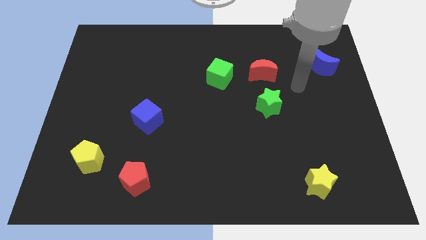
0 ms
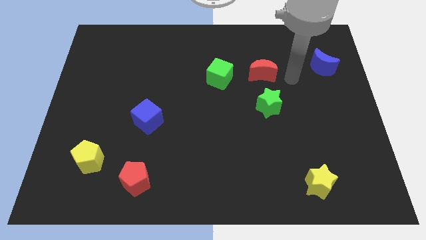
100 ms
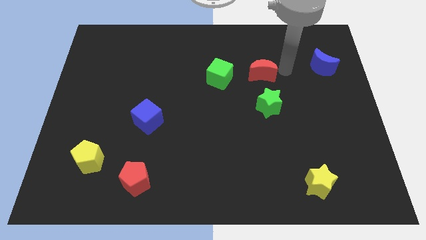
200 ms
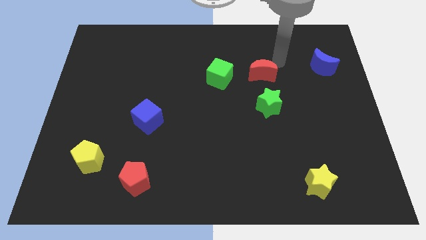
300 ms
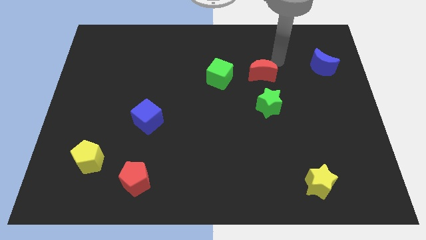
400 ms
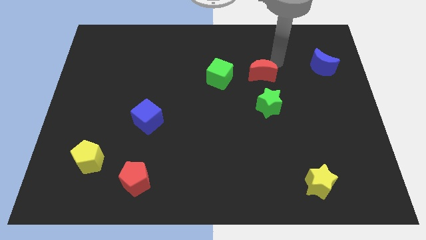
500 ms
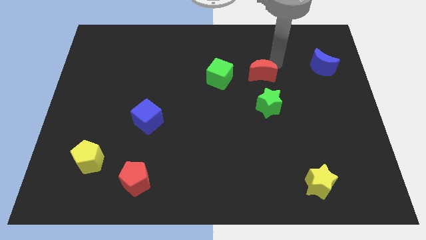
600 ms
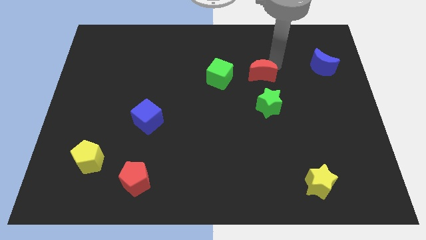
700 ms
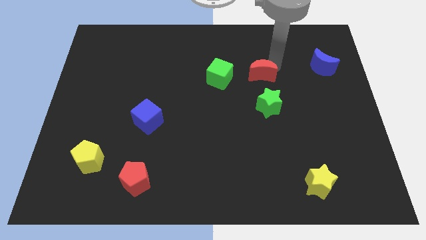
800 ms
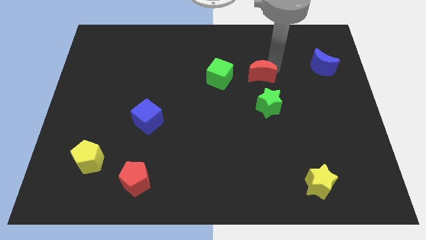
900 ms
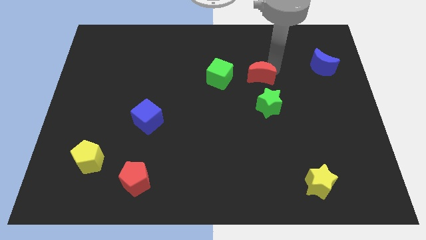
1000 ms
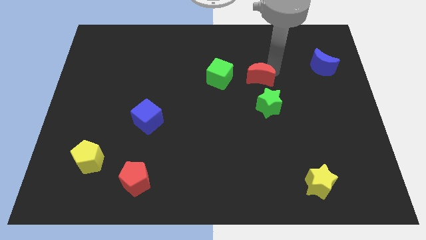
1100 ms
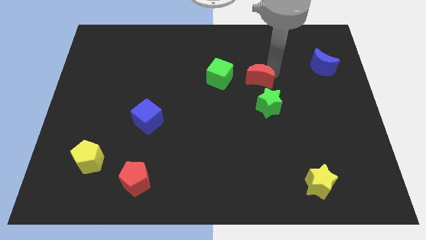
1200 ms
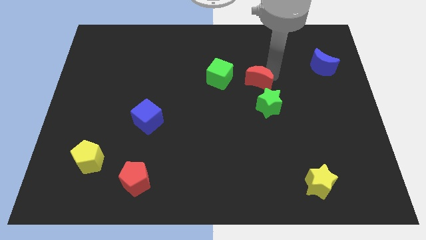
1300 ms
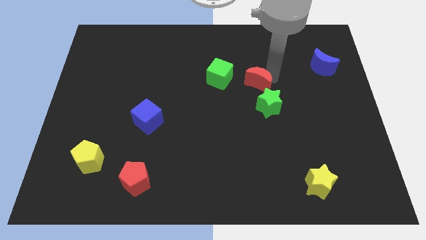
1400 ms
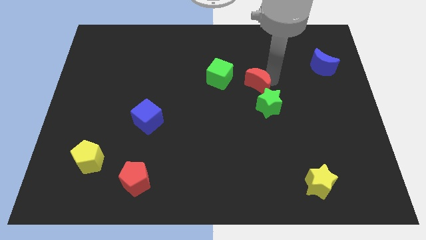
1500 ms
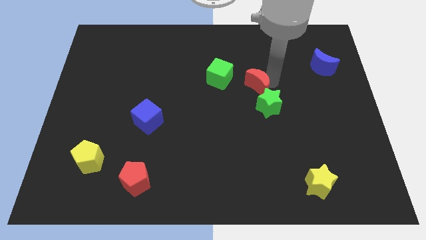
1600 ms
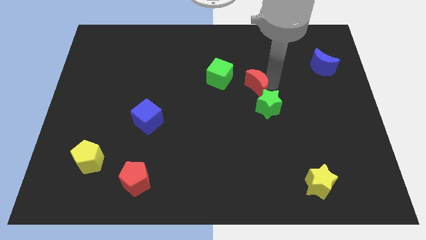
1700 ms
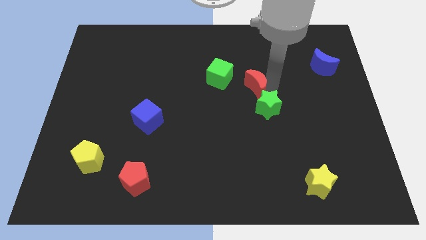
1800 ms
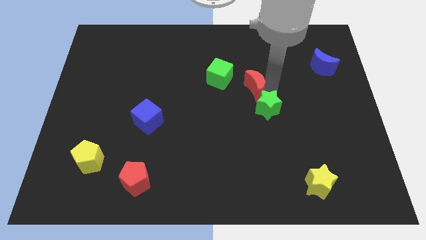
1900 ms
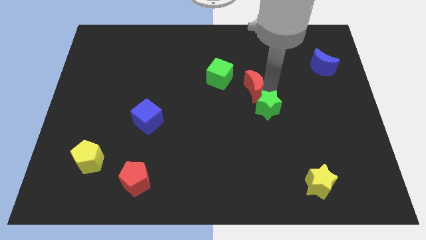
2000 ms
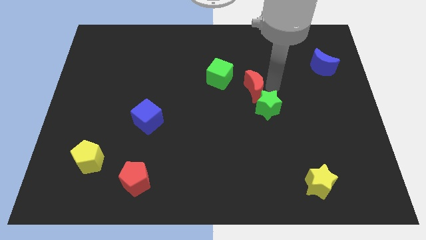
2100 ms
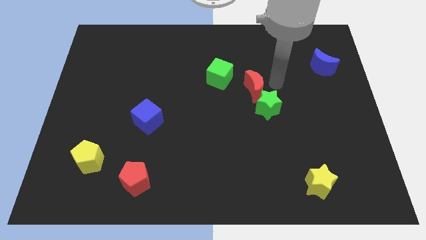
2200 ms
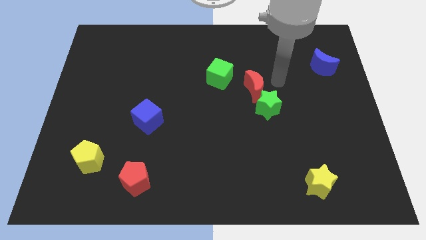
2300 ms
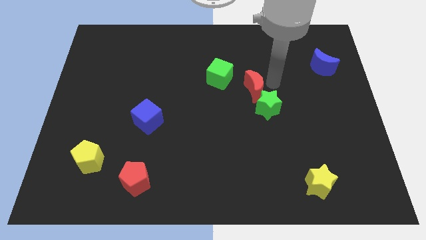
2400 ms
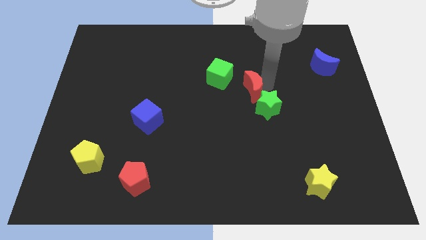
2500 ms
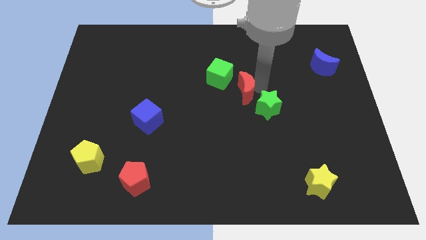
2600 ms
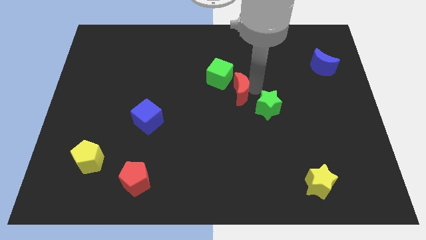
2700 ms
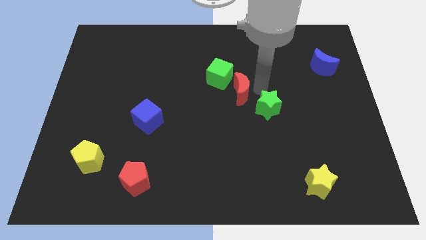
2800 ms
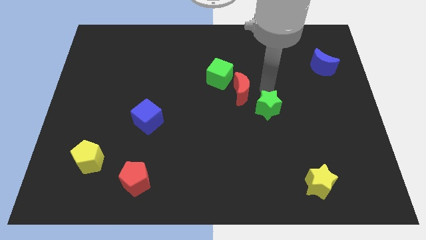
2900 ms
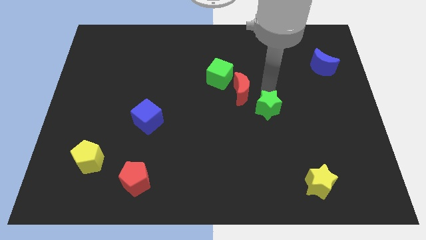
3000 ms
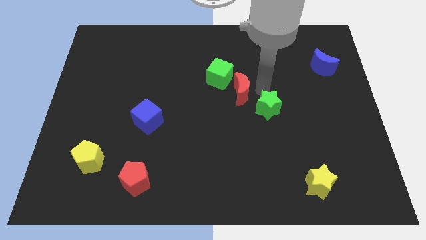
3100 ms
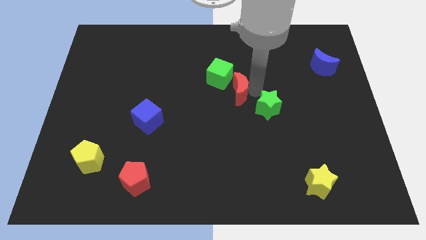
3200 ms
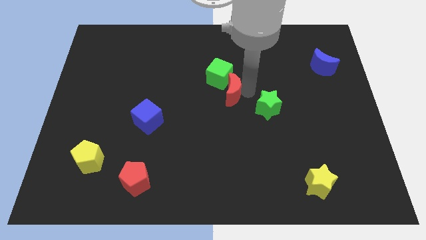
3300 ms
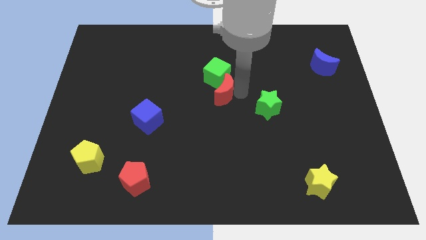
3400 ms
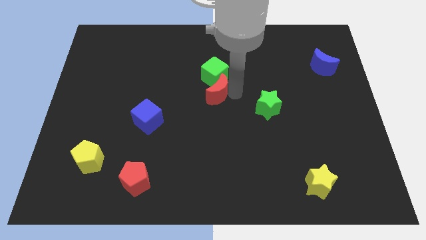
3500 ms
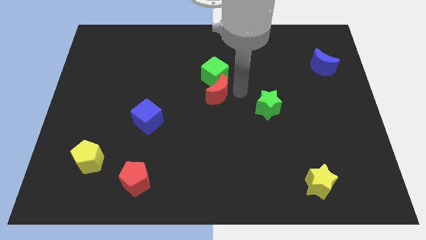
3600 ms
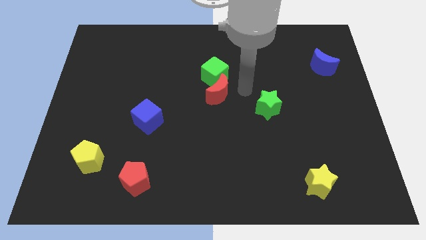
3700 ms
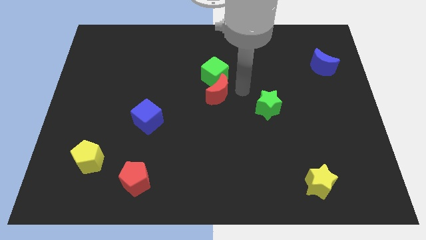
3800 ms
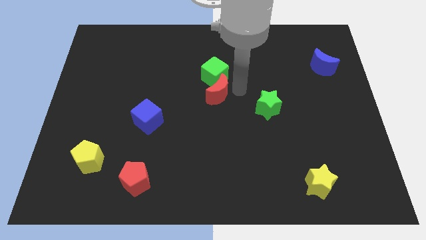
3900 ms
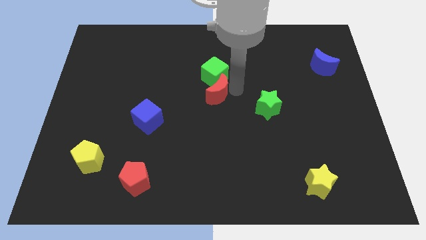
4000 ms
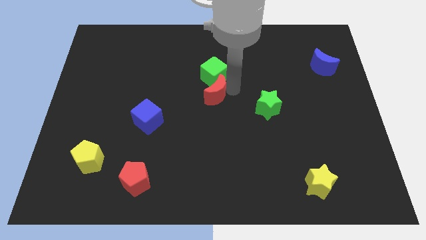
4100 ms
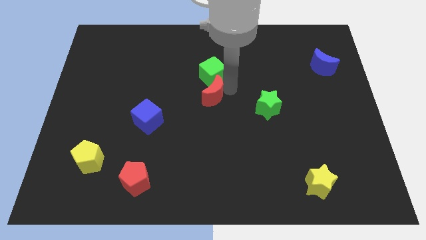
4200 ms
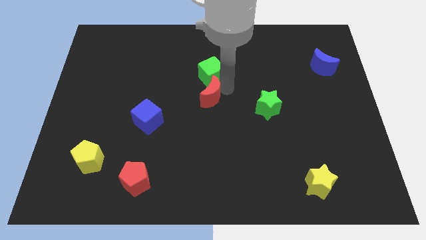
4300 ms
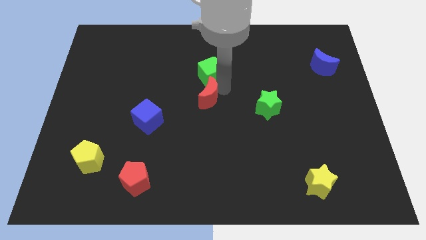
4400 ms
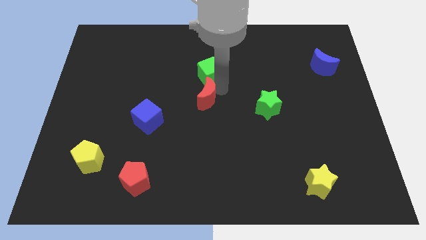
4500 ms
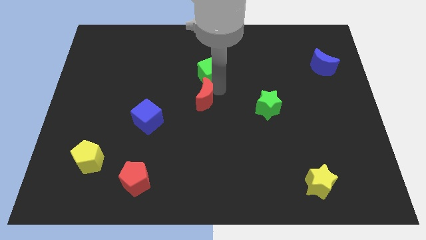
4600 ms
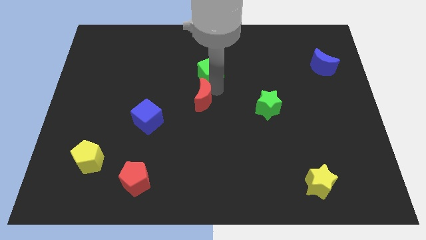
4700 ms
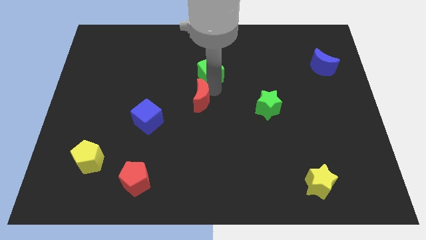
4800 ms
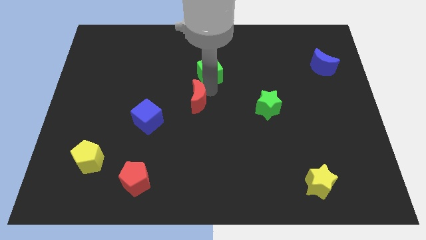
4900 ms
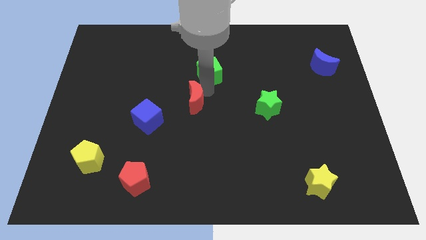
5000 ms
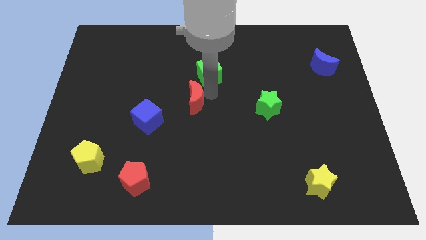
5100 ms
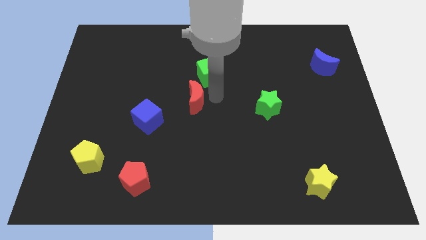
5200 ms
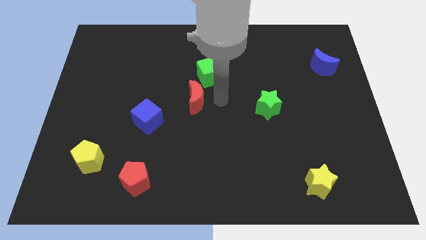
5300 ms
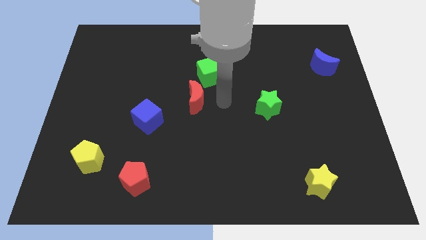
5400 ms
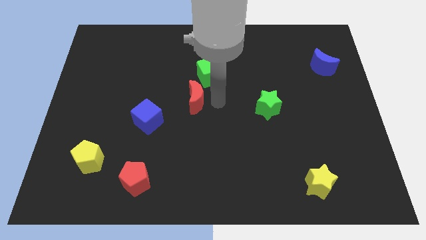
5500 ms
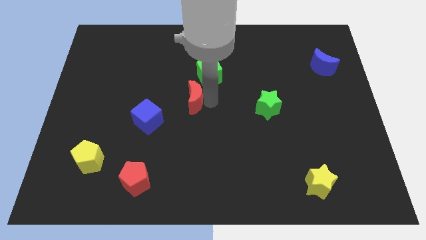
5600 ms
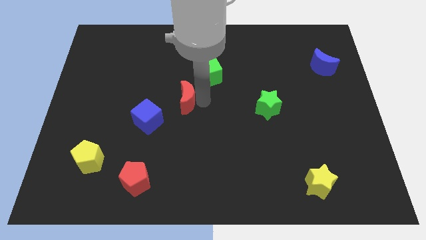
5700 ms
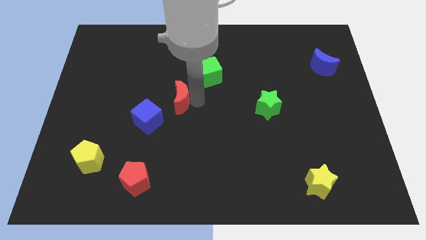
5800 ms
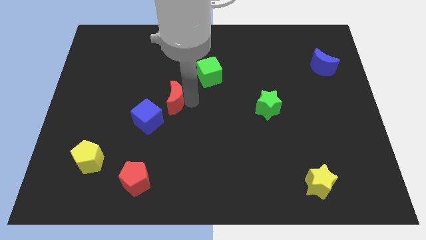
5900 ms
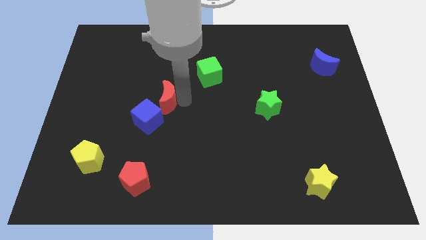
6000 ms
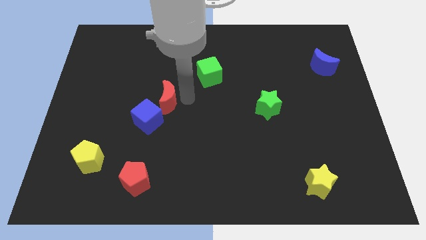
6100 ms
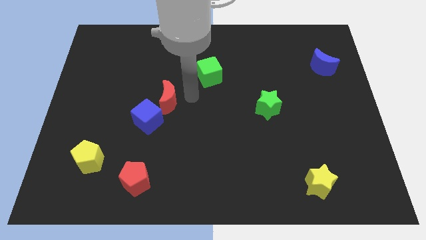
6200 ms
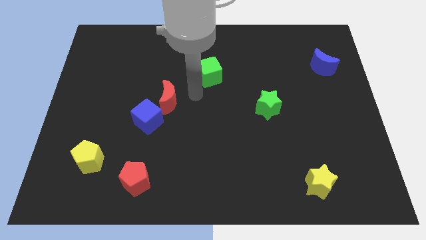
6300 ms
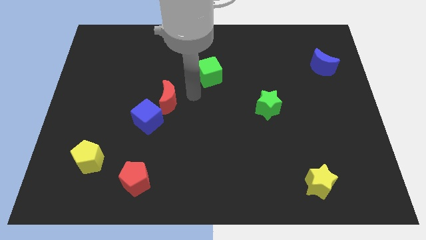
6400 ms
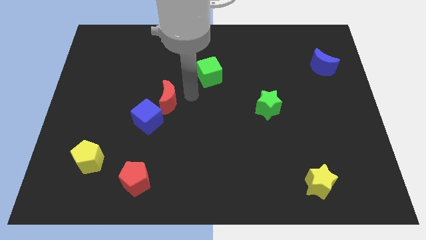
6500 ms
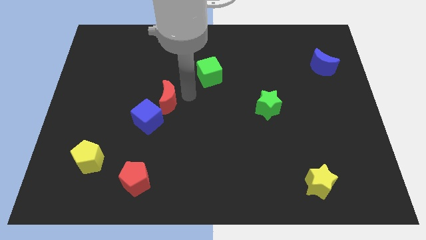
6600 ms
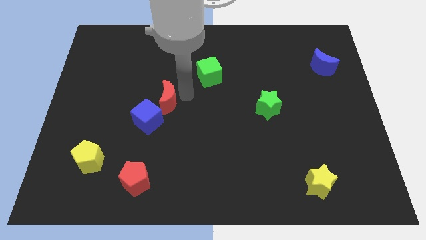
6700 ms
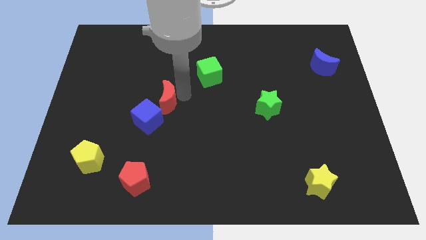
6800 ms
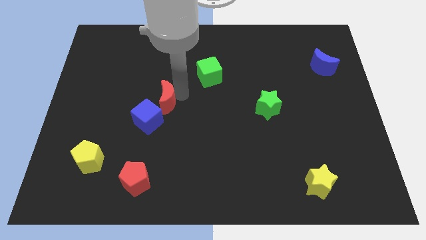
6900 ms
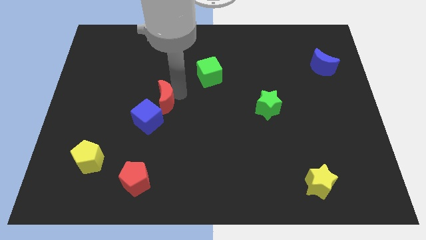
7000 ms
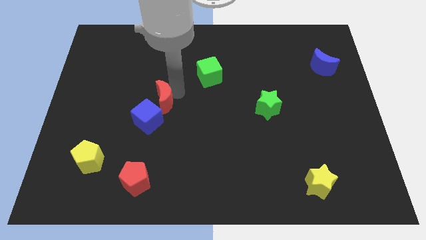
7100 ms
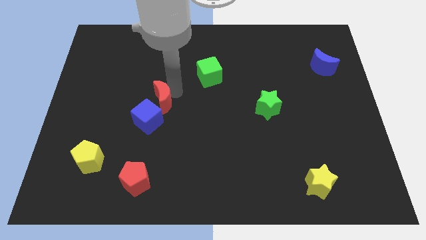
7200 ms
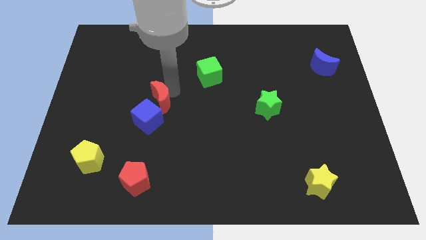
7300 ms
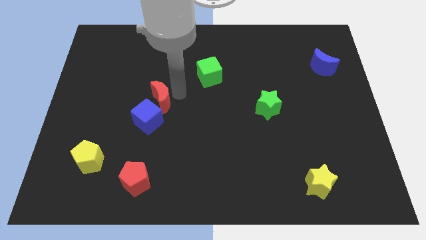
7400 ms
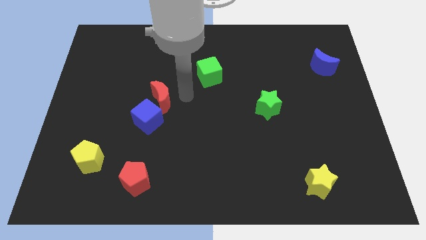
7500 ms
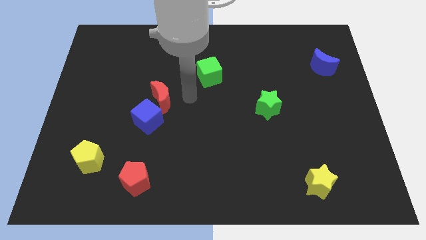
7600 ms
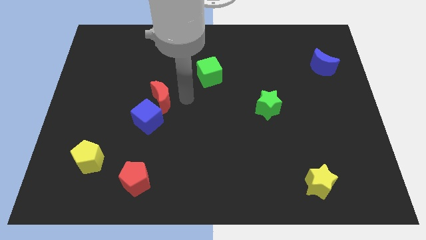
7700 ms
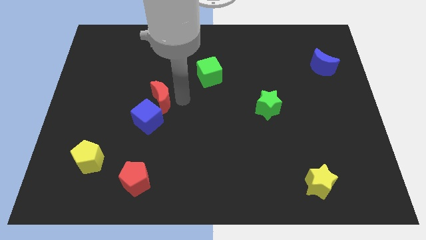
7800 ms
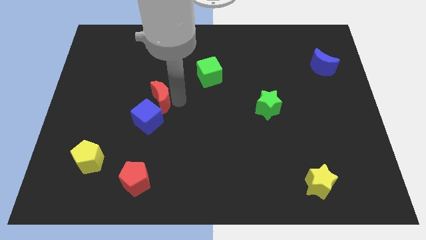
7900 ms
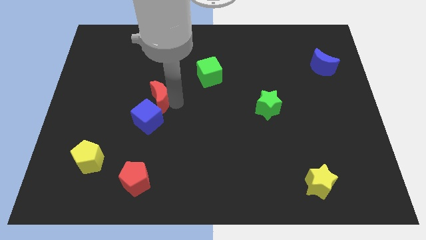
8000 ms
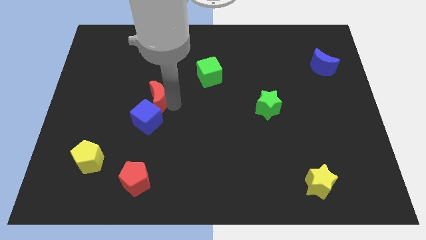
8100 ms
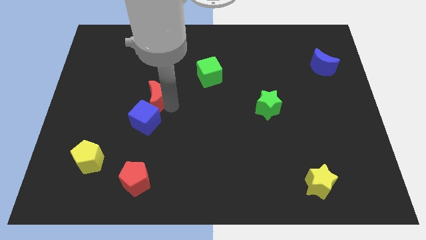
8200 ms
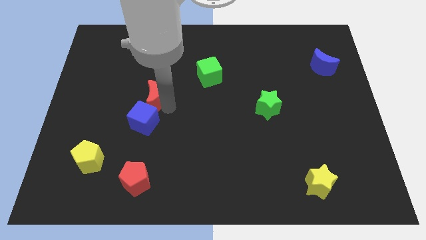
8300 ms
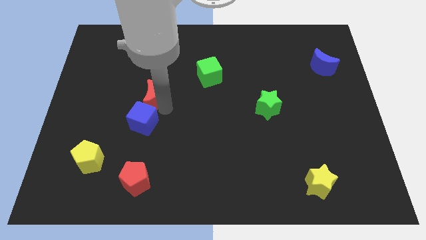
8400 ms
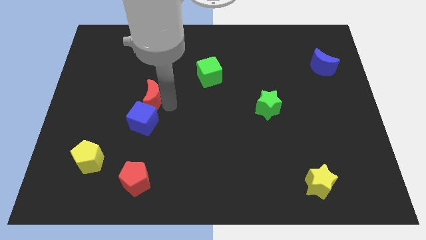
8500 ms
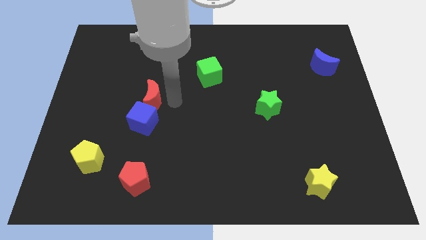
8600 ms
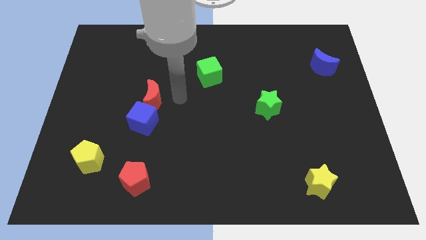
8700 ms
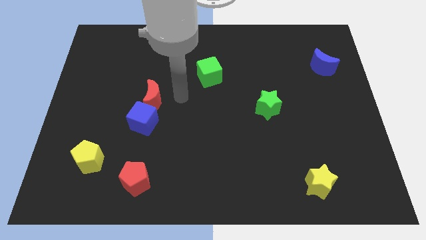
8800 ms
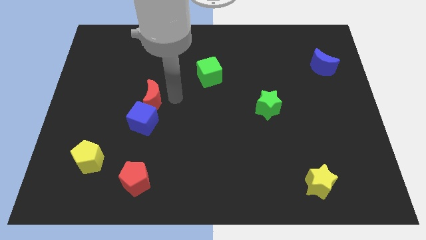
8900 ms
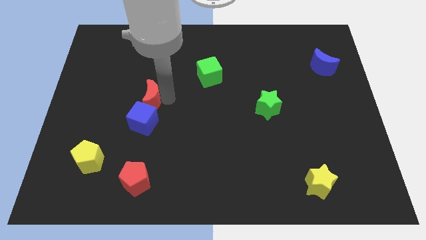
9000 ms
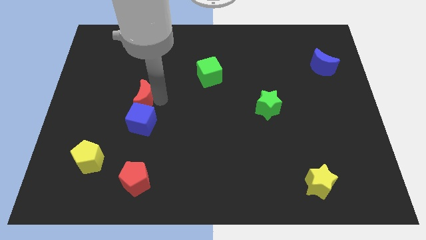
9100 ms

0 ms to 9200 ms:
slide the red moon diagonally up and to the left of the blue cube
